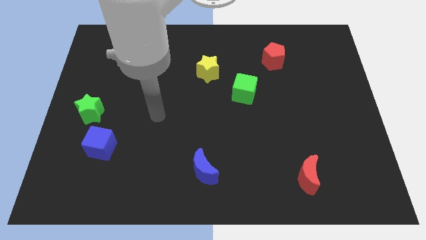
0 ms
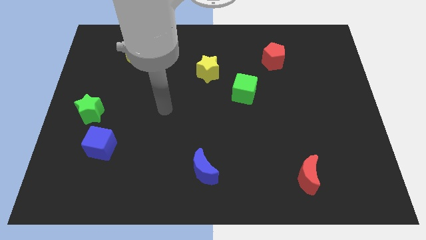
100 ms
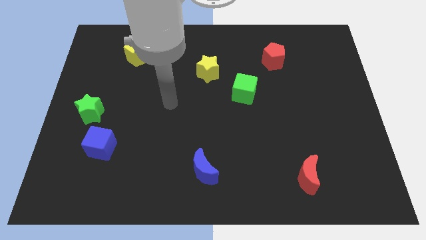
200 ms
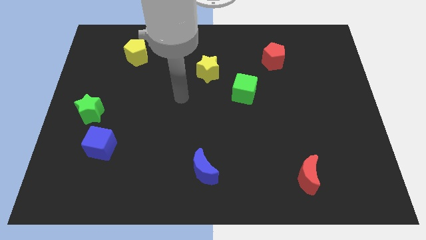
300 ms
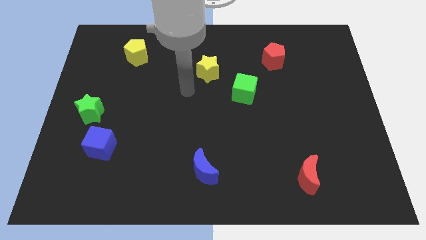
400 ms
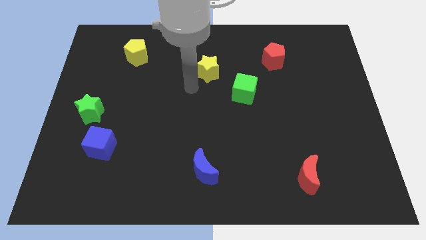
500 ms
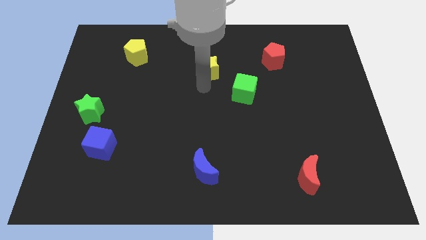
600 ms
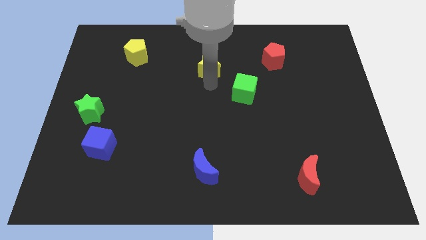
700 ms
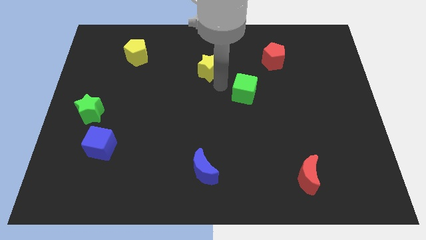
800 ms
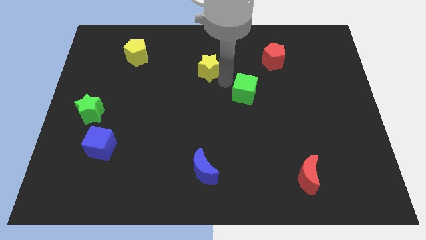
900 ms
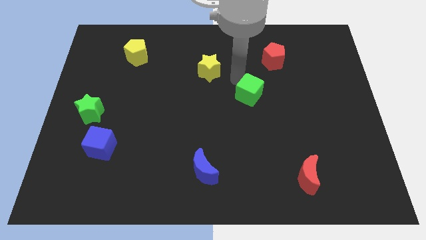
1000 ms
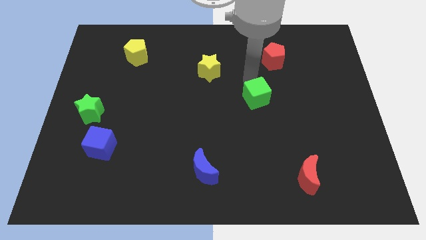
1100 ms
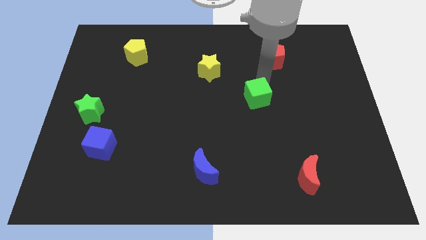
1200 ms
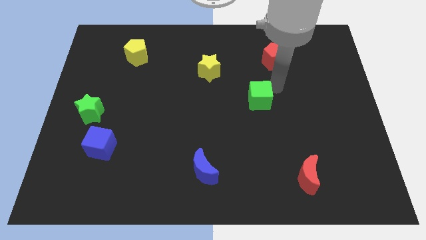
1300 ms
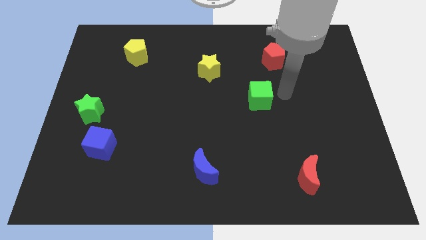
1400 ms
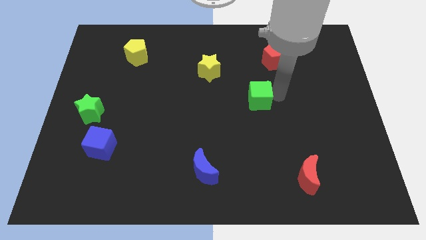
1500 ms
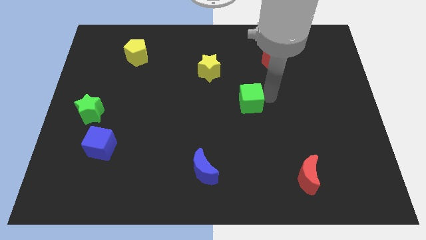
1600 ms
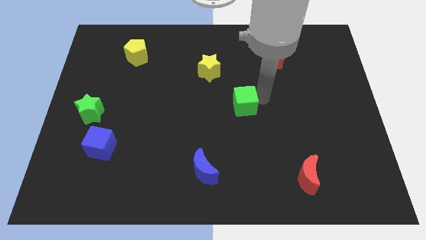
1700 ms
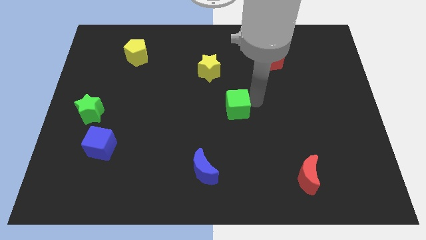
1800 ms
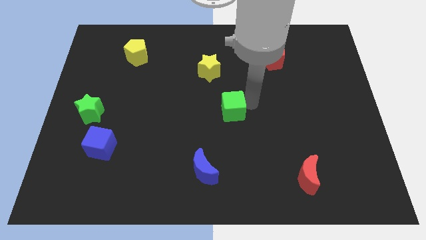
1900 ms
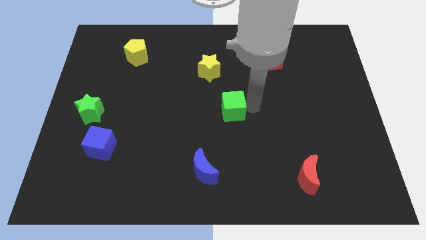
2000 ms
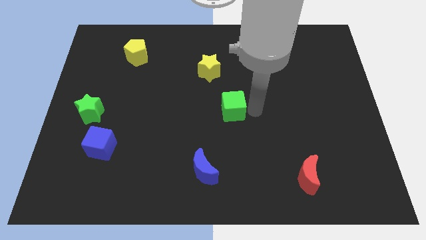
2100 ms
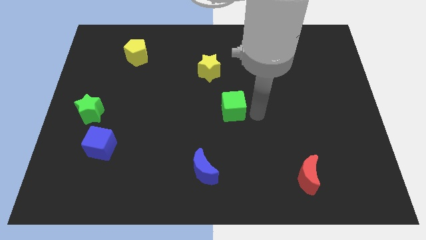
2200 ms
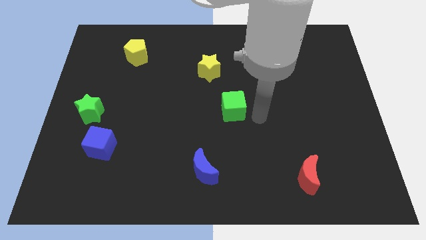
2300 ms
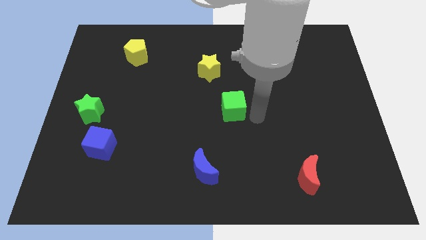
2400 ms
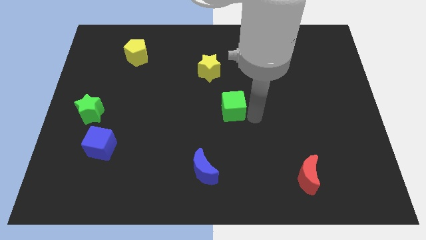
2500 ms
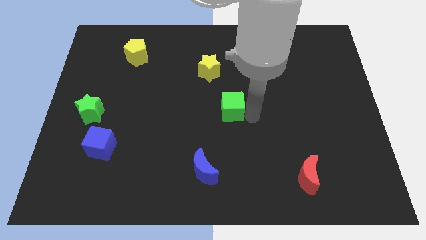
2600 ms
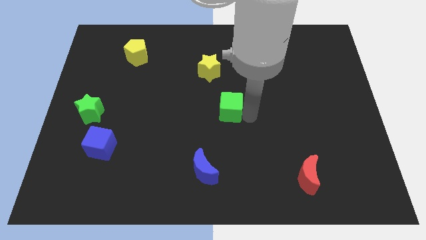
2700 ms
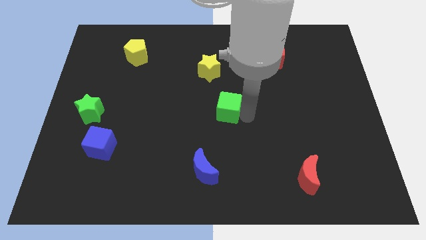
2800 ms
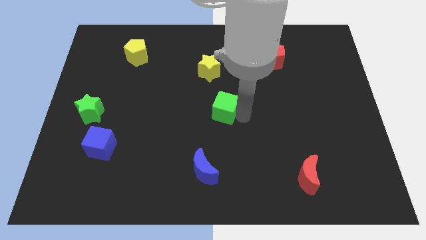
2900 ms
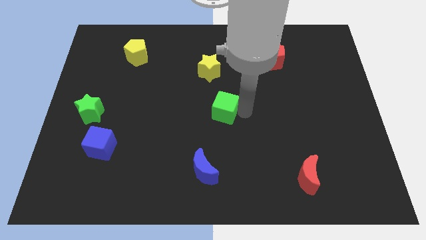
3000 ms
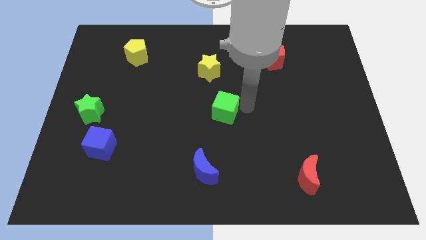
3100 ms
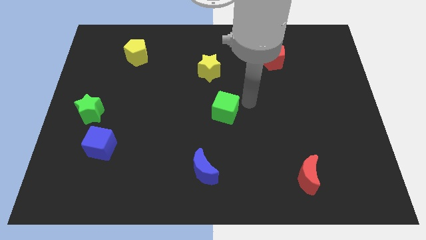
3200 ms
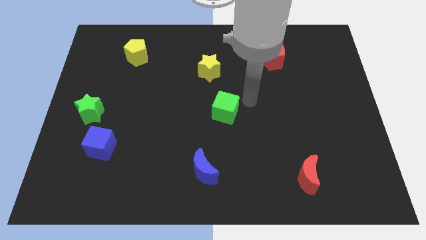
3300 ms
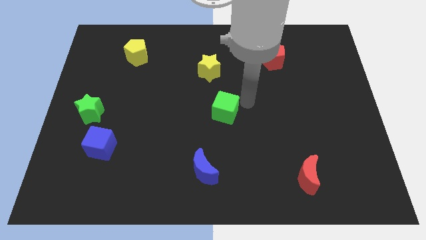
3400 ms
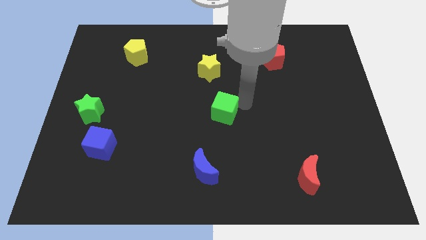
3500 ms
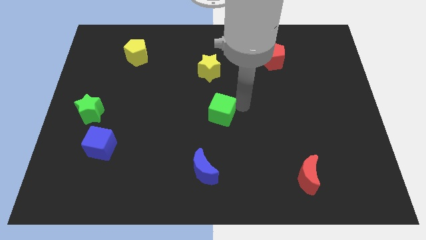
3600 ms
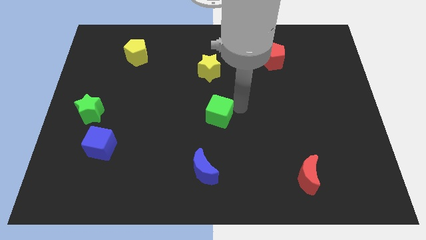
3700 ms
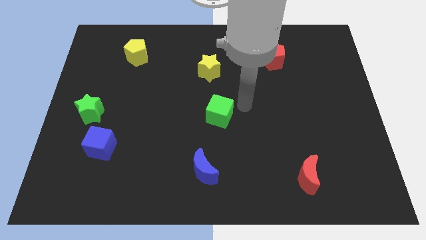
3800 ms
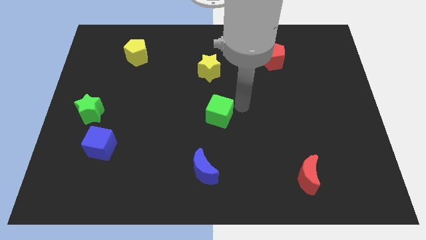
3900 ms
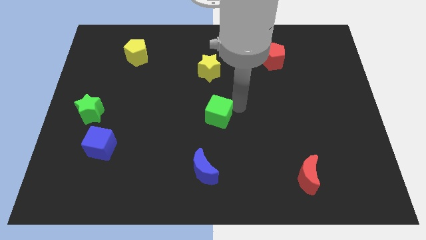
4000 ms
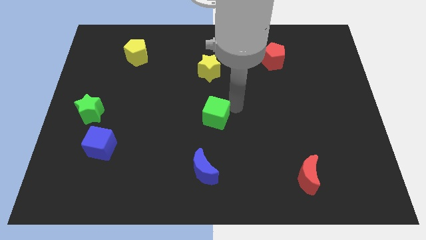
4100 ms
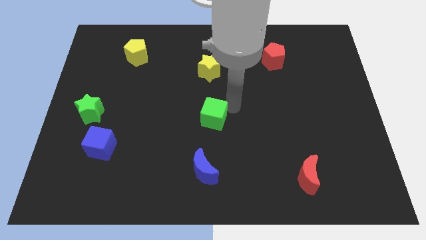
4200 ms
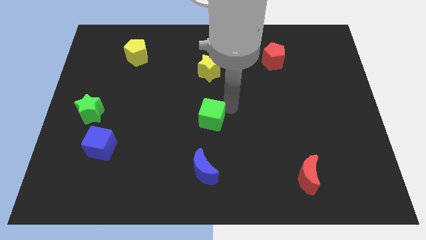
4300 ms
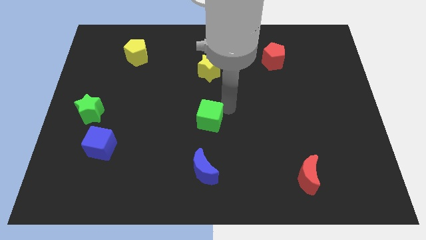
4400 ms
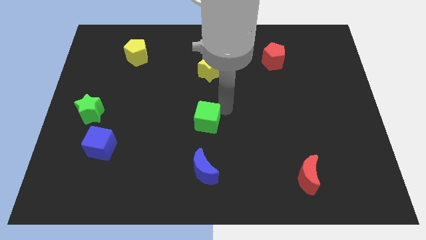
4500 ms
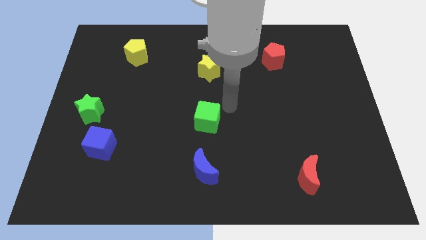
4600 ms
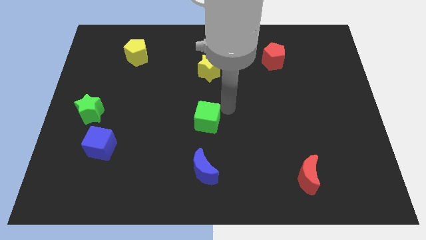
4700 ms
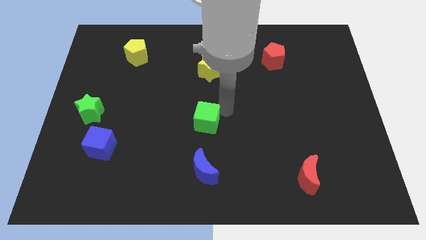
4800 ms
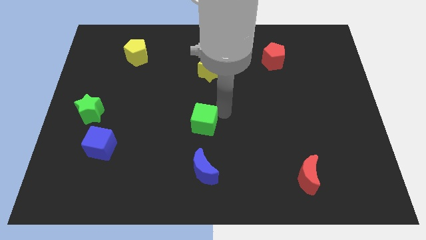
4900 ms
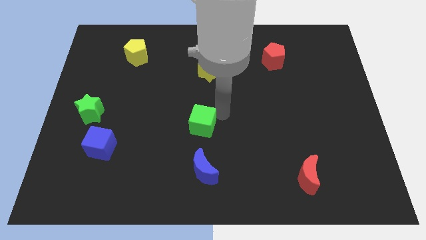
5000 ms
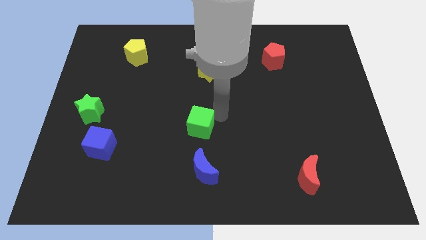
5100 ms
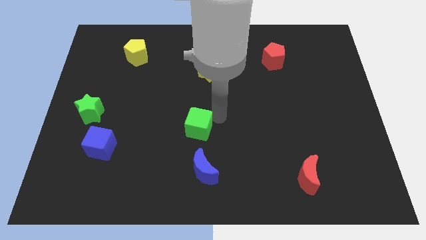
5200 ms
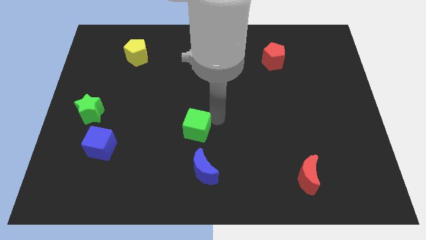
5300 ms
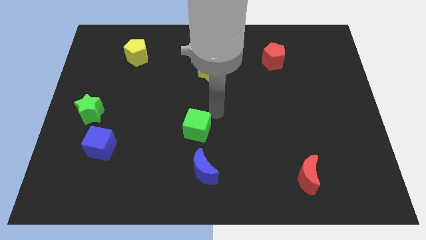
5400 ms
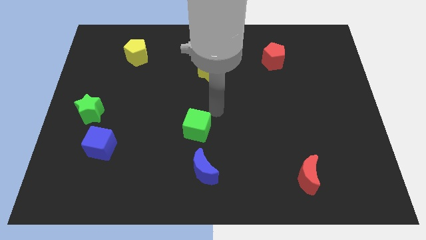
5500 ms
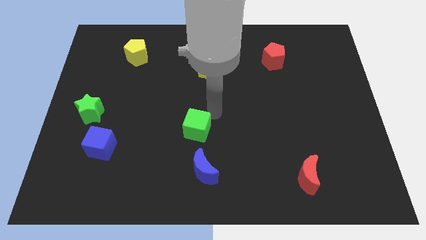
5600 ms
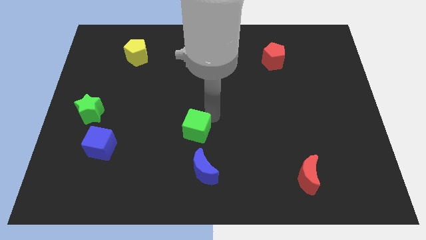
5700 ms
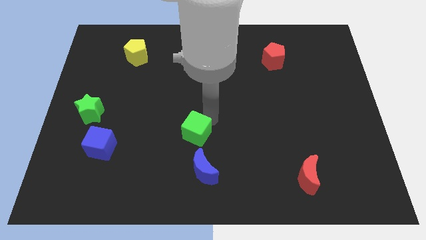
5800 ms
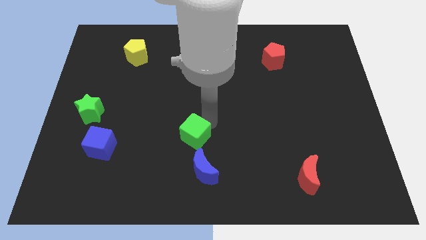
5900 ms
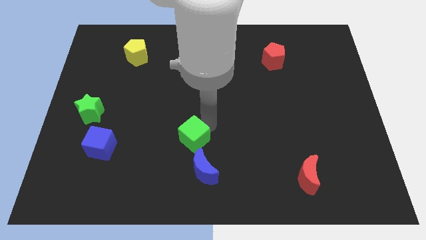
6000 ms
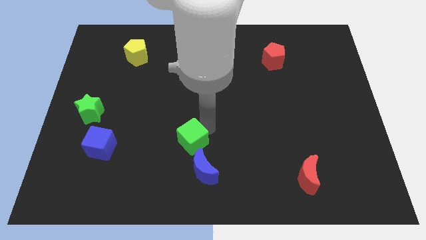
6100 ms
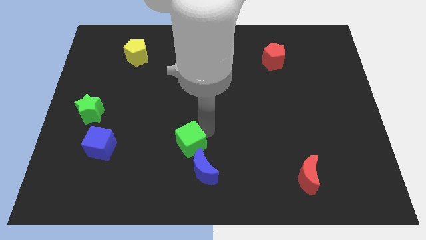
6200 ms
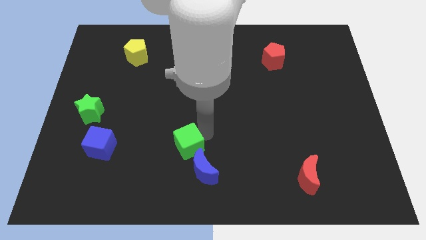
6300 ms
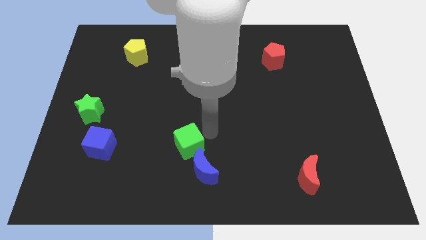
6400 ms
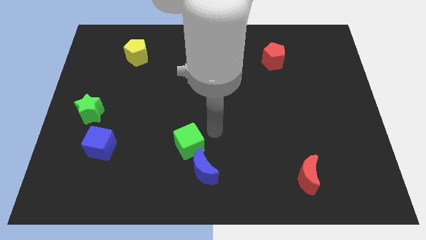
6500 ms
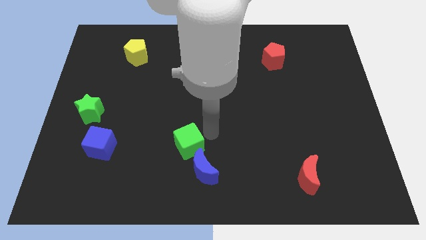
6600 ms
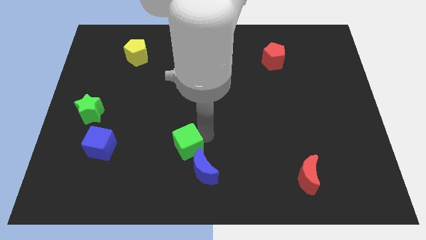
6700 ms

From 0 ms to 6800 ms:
slide the green cube downwards and left

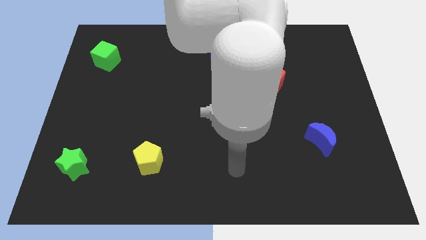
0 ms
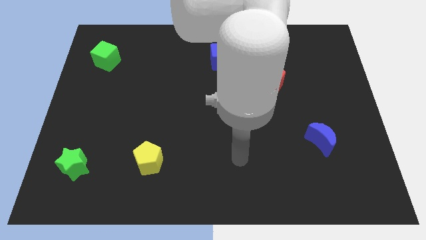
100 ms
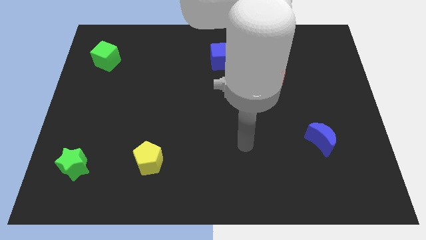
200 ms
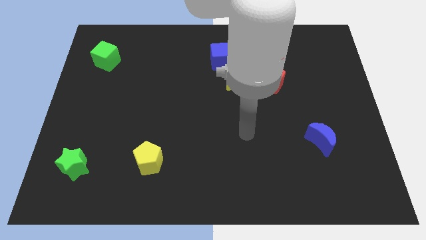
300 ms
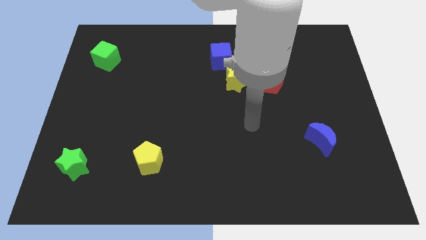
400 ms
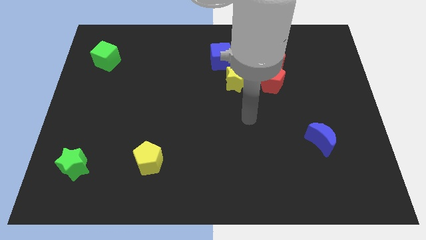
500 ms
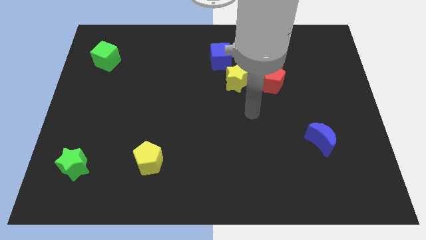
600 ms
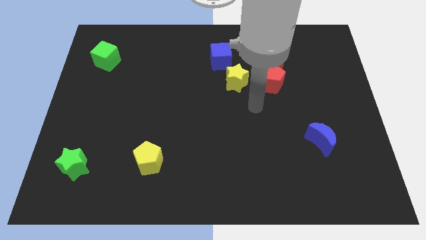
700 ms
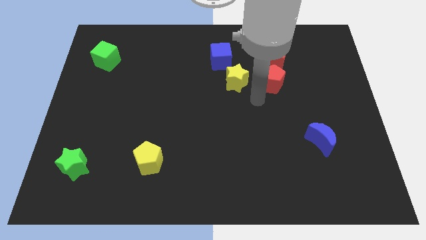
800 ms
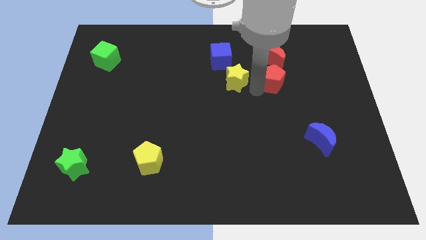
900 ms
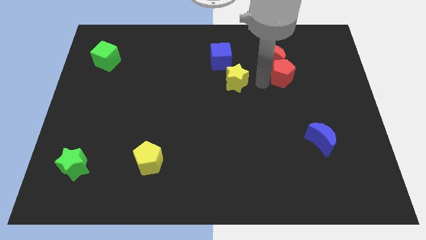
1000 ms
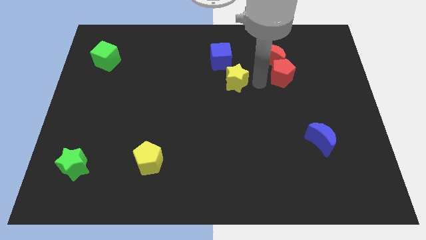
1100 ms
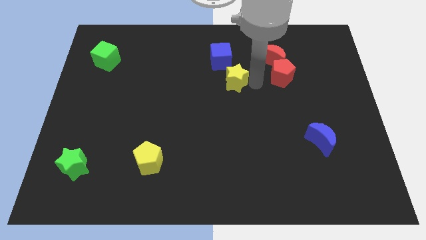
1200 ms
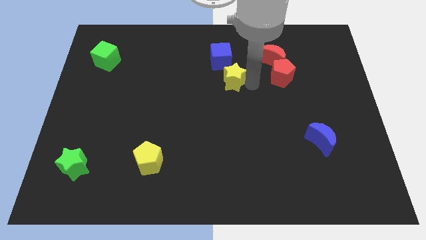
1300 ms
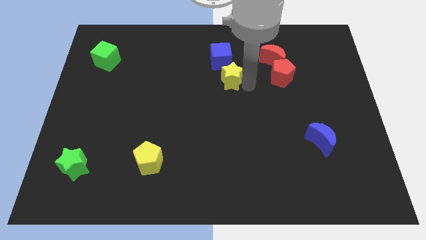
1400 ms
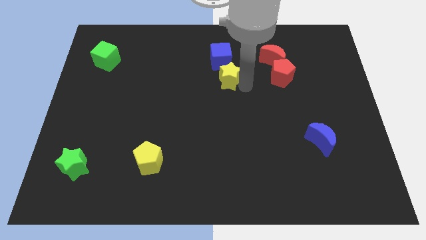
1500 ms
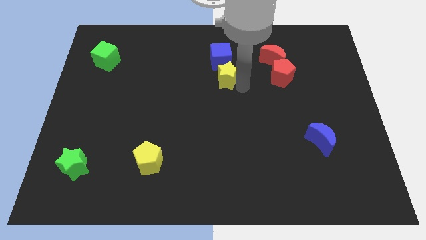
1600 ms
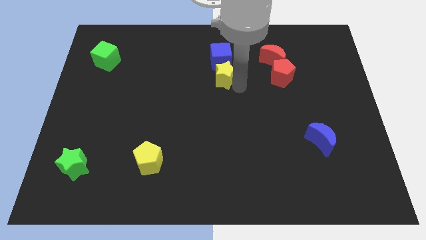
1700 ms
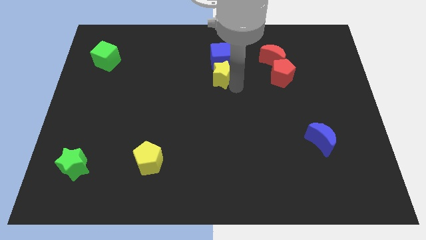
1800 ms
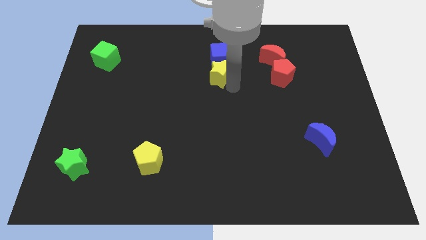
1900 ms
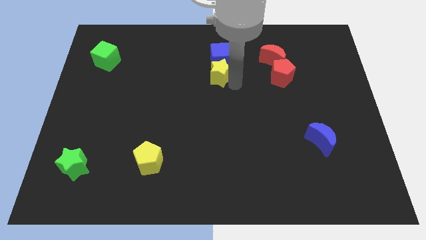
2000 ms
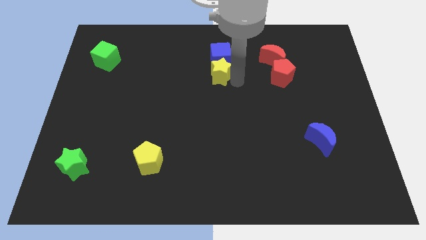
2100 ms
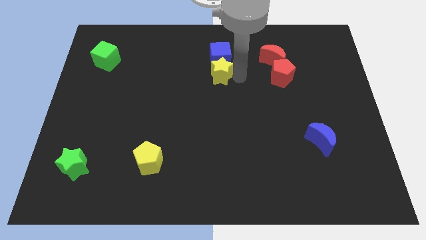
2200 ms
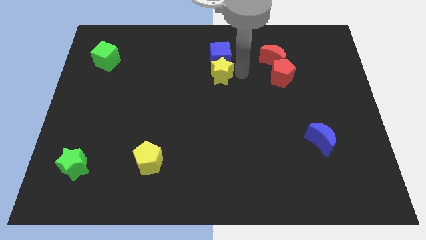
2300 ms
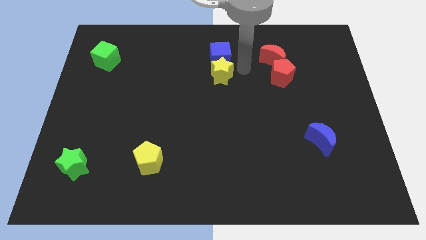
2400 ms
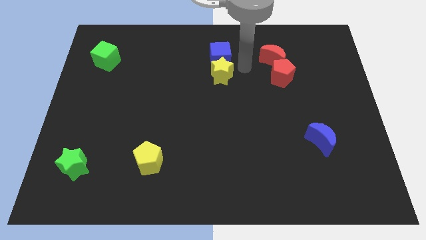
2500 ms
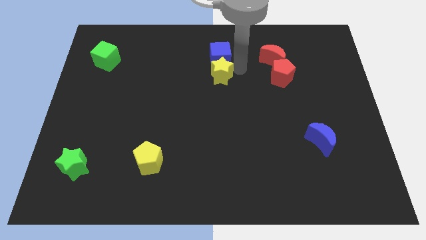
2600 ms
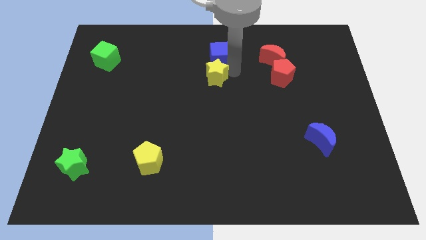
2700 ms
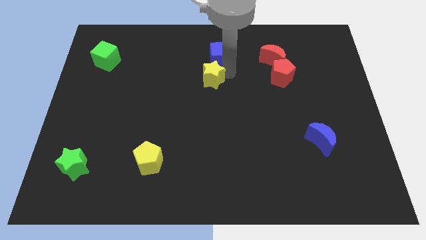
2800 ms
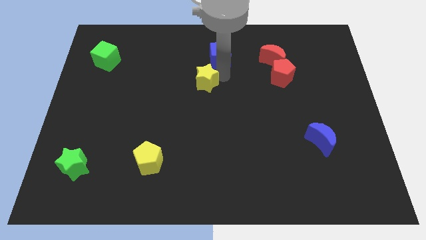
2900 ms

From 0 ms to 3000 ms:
push the yellow star slightly left
